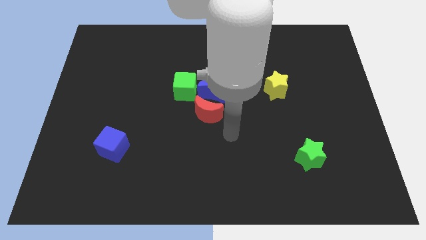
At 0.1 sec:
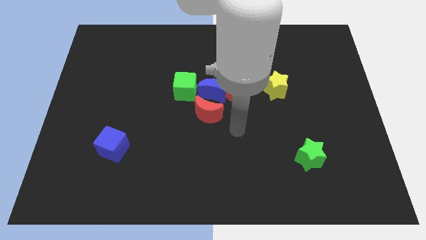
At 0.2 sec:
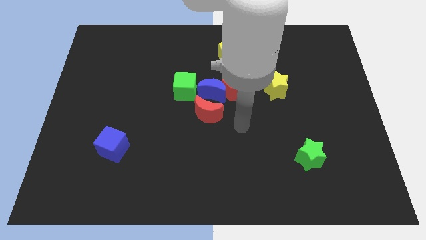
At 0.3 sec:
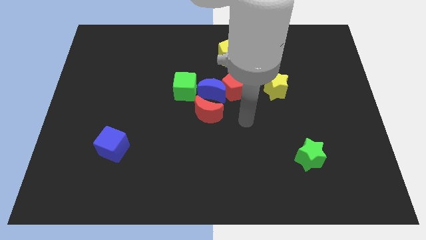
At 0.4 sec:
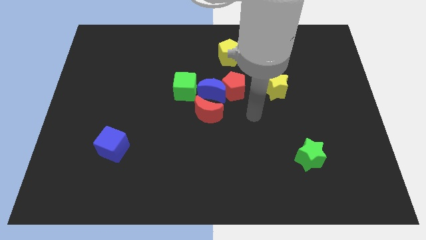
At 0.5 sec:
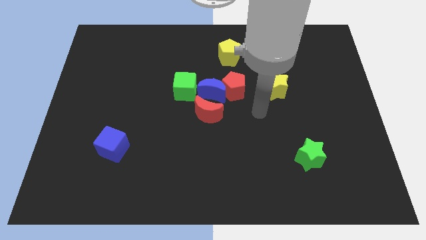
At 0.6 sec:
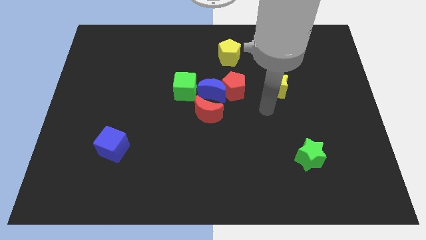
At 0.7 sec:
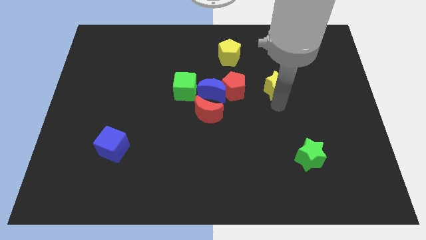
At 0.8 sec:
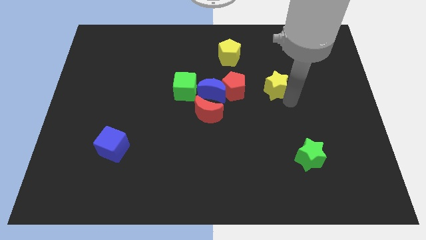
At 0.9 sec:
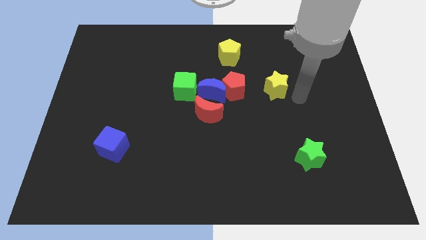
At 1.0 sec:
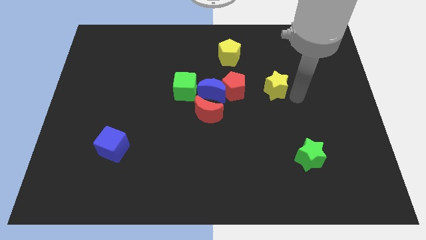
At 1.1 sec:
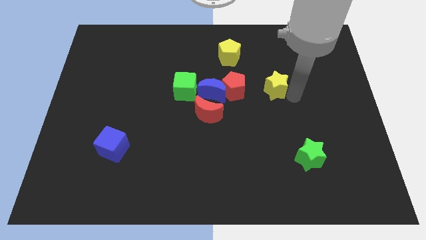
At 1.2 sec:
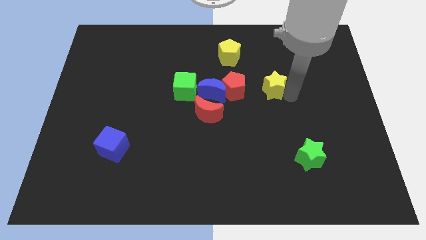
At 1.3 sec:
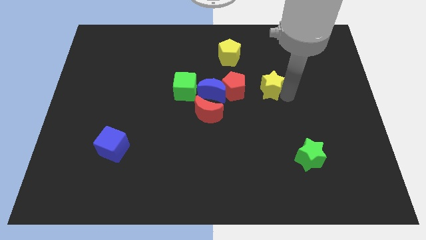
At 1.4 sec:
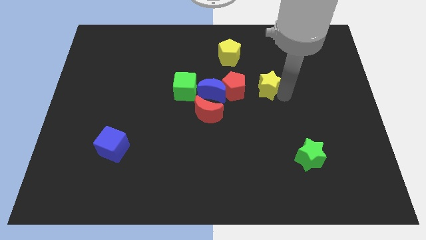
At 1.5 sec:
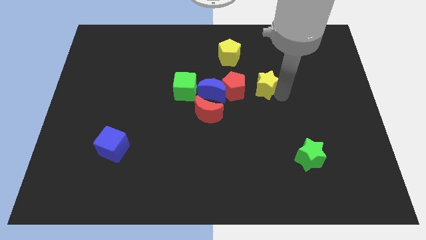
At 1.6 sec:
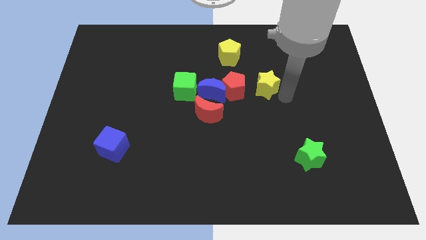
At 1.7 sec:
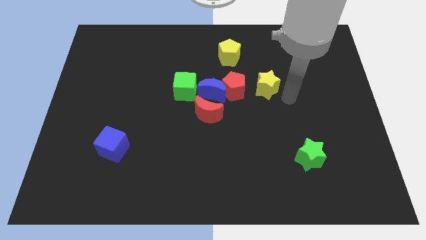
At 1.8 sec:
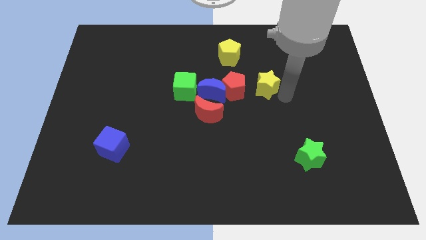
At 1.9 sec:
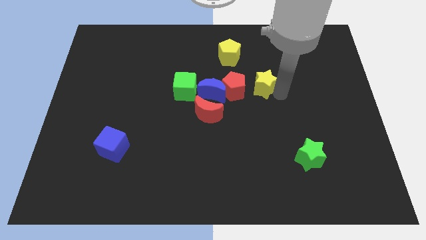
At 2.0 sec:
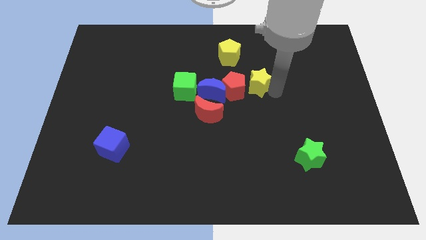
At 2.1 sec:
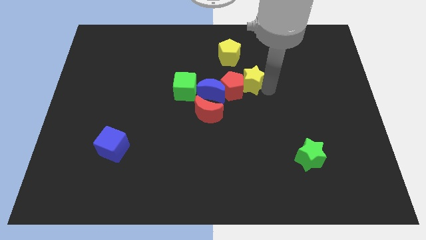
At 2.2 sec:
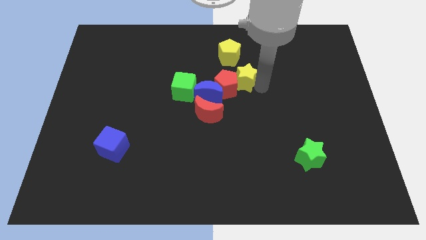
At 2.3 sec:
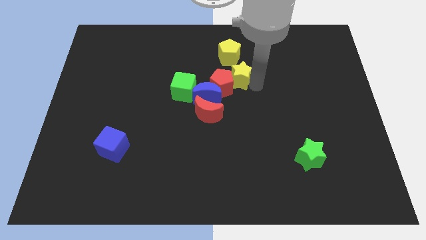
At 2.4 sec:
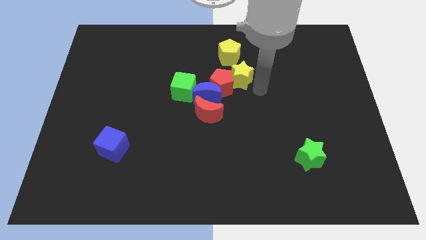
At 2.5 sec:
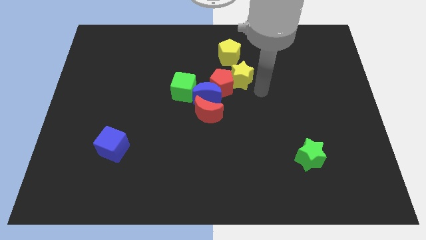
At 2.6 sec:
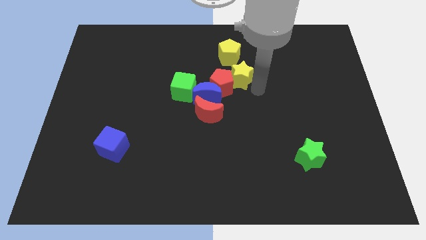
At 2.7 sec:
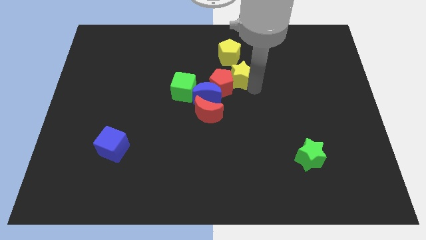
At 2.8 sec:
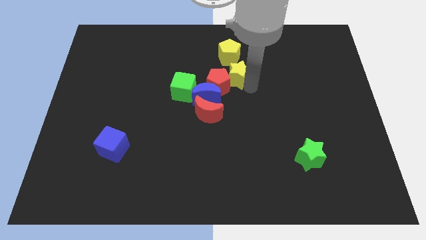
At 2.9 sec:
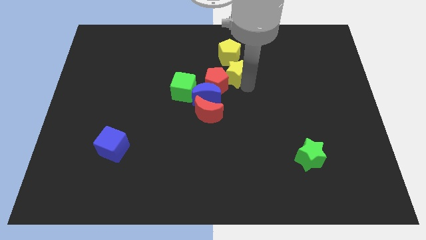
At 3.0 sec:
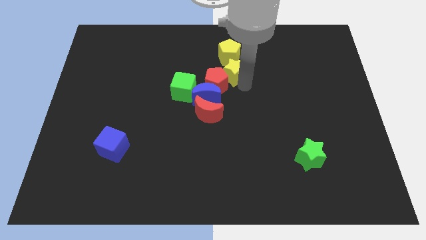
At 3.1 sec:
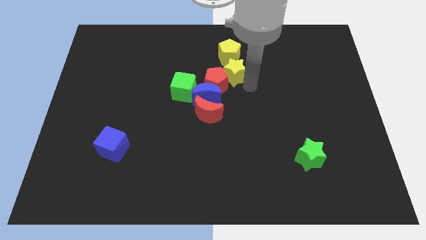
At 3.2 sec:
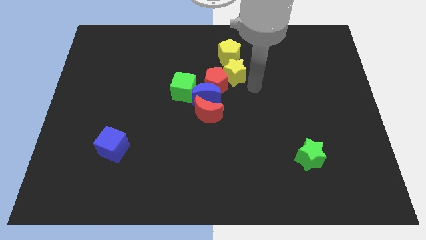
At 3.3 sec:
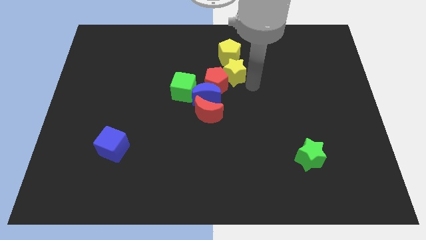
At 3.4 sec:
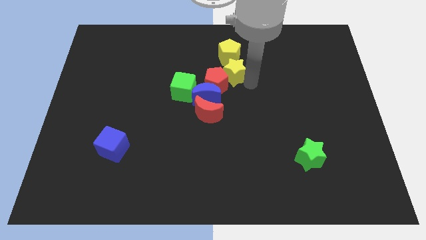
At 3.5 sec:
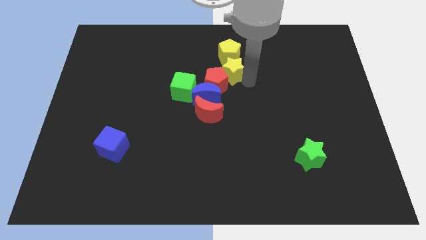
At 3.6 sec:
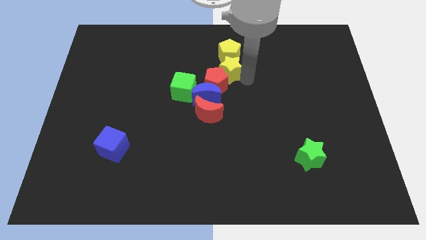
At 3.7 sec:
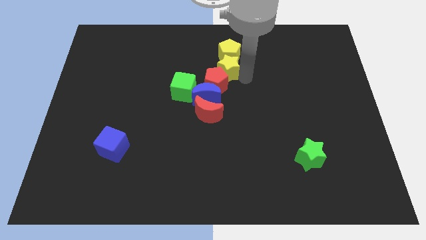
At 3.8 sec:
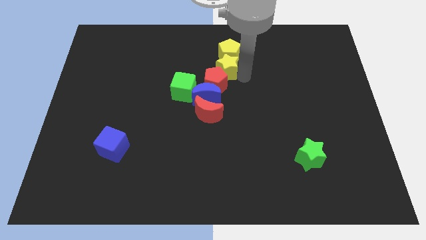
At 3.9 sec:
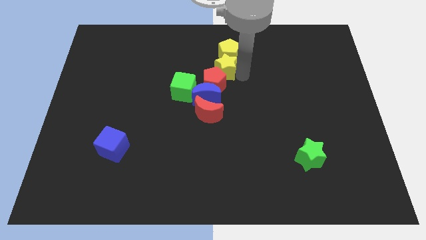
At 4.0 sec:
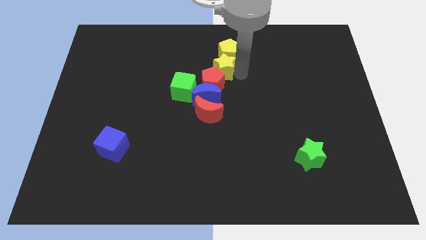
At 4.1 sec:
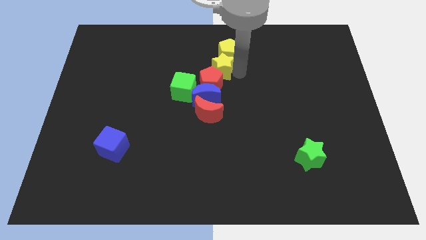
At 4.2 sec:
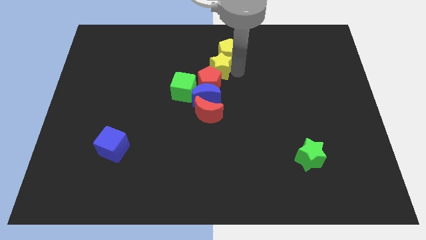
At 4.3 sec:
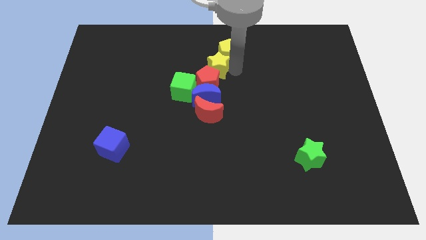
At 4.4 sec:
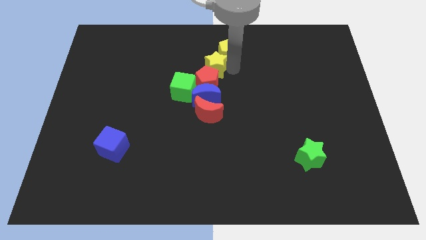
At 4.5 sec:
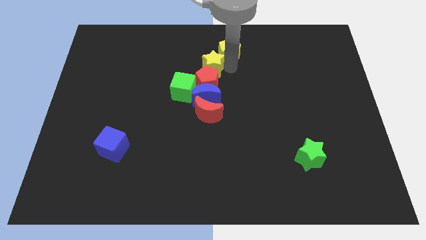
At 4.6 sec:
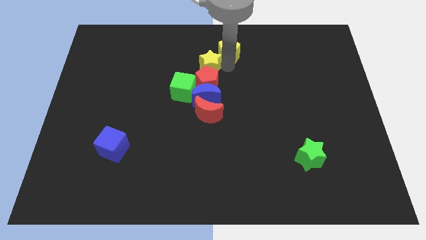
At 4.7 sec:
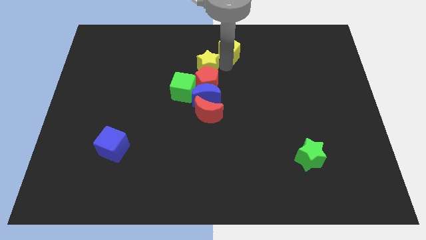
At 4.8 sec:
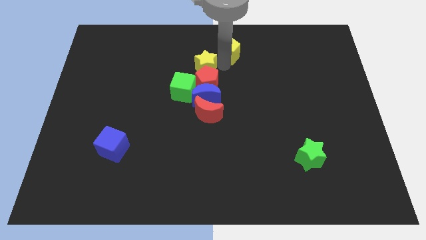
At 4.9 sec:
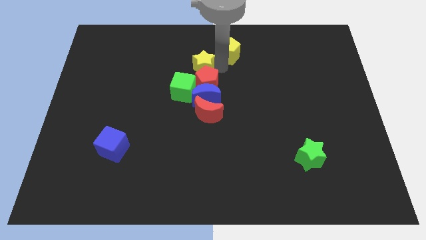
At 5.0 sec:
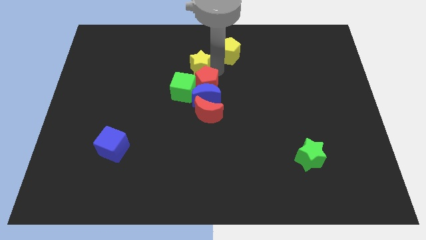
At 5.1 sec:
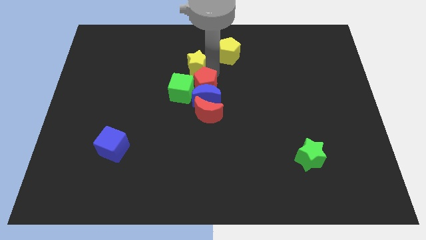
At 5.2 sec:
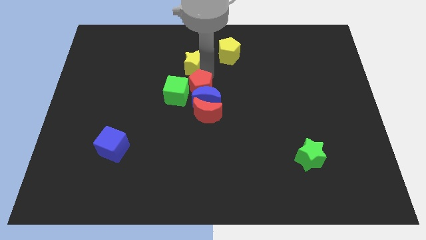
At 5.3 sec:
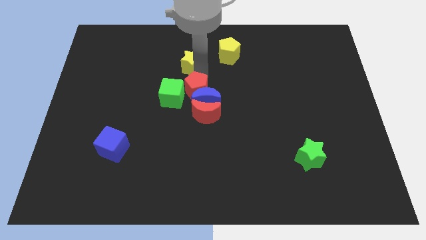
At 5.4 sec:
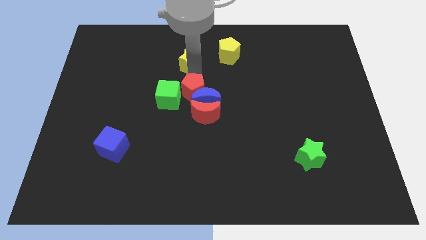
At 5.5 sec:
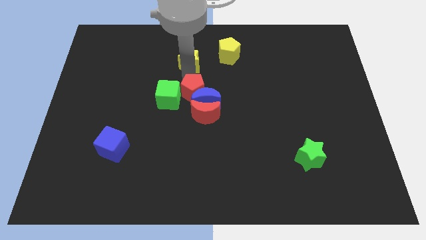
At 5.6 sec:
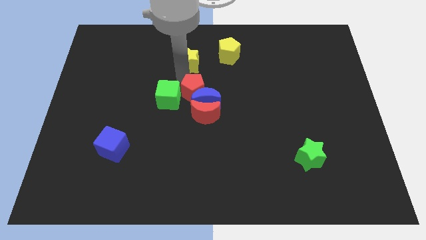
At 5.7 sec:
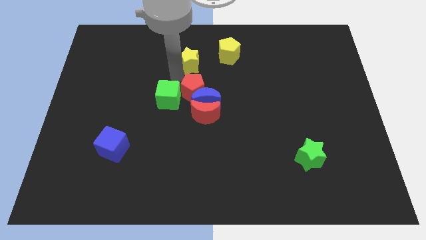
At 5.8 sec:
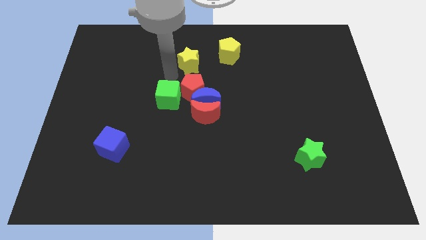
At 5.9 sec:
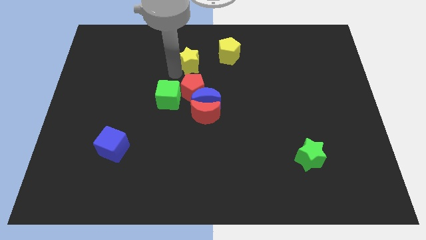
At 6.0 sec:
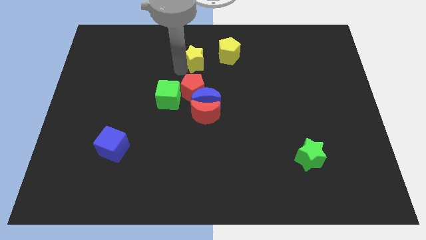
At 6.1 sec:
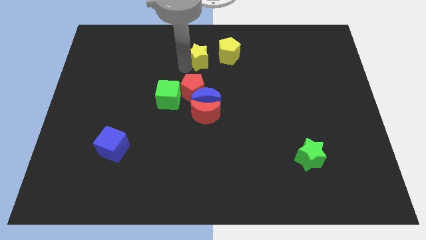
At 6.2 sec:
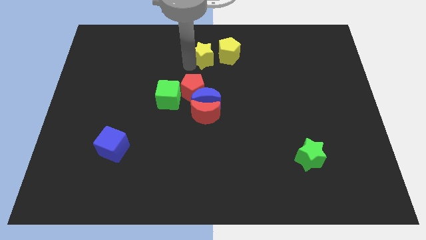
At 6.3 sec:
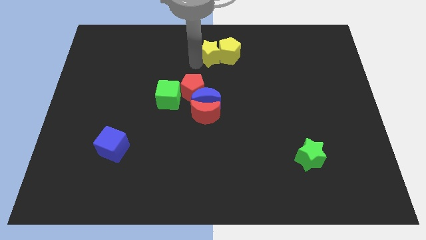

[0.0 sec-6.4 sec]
slide the yellow star to the top side
